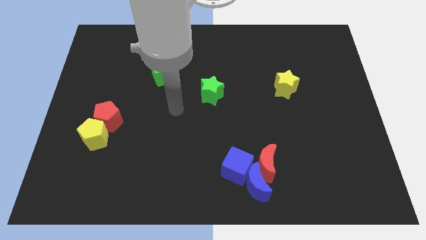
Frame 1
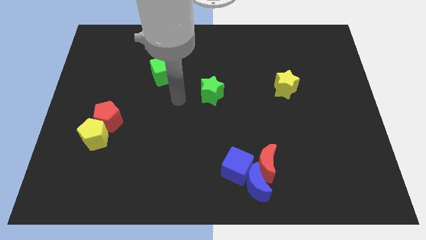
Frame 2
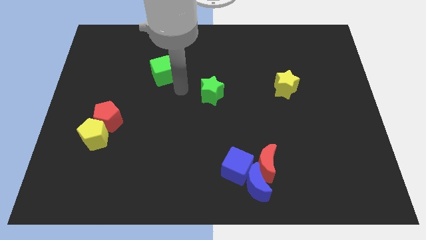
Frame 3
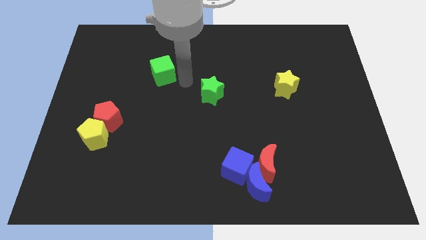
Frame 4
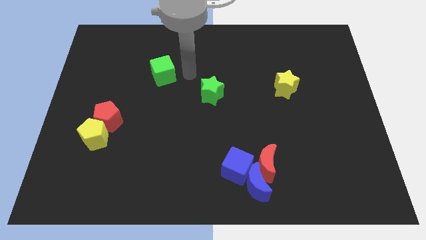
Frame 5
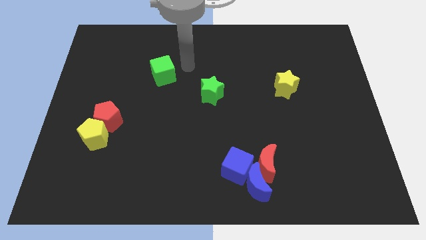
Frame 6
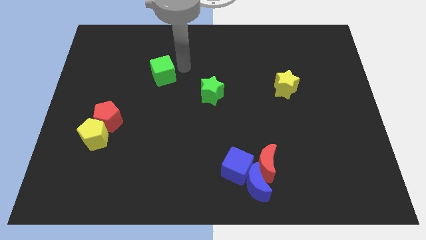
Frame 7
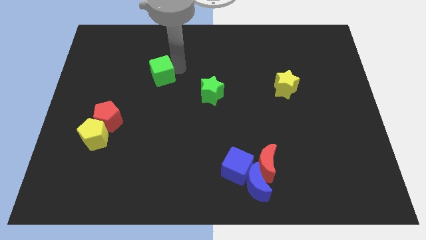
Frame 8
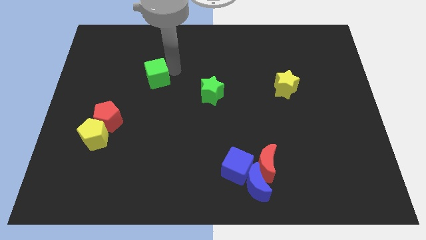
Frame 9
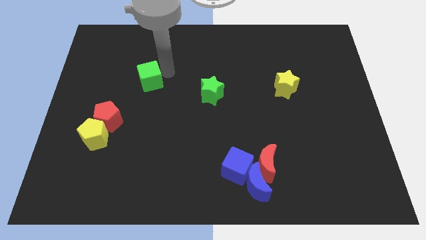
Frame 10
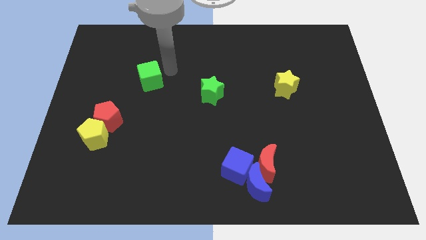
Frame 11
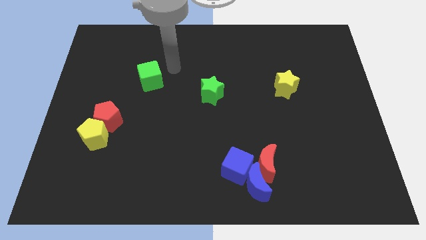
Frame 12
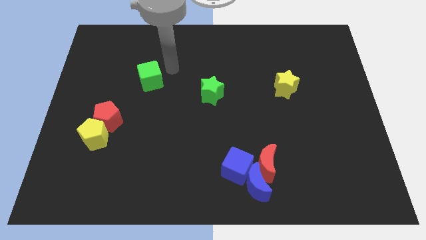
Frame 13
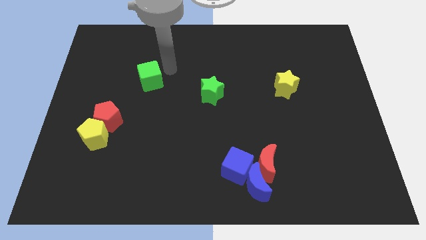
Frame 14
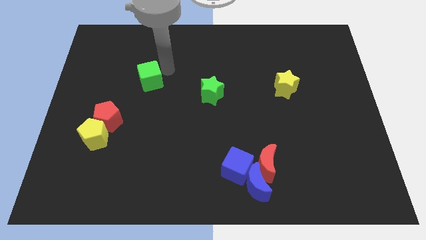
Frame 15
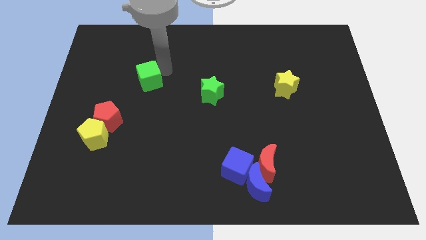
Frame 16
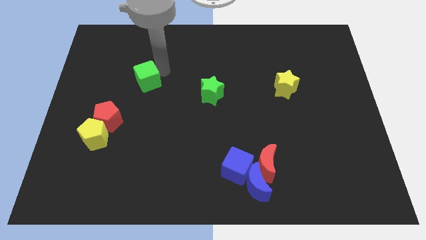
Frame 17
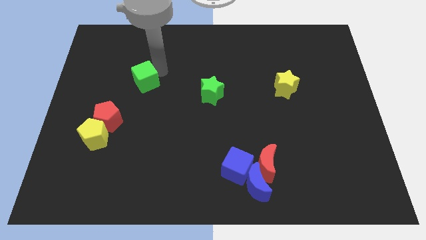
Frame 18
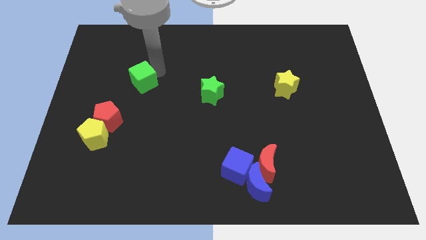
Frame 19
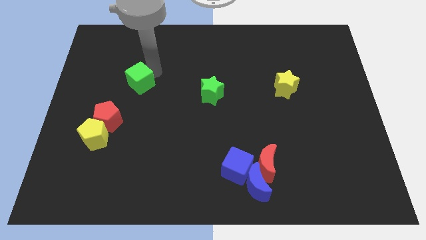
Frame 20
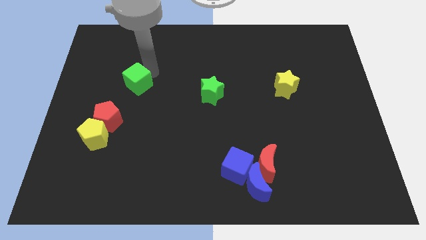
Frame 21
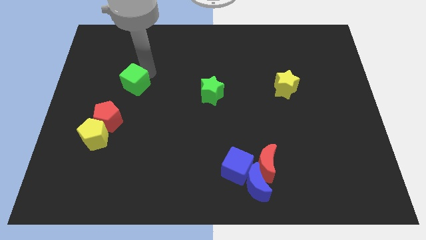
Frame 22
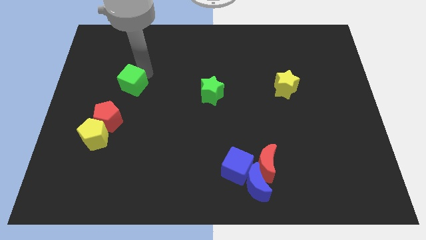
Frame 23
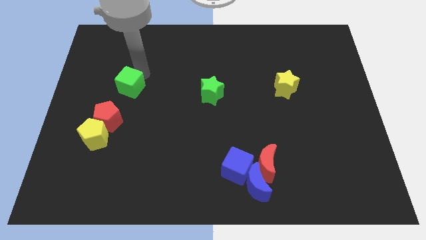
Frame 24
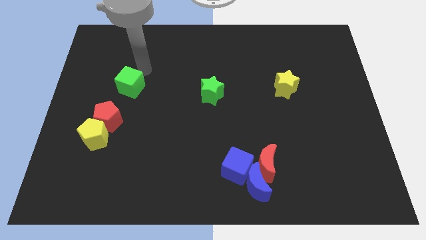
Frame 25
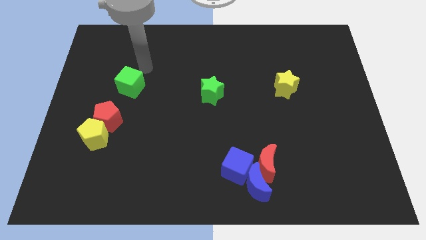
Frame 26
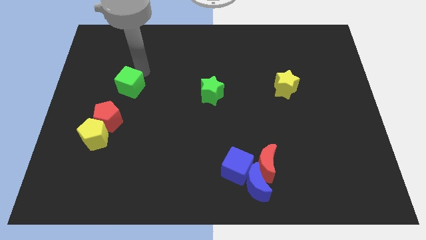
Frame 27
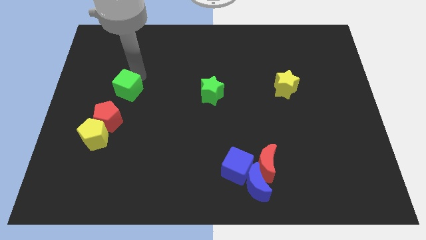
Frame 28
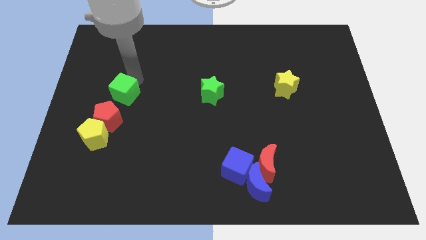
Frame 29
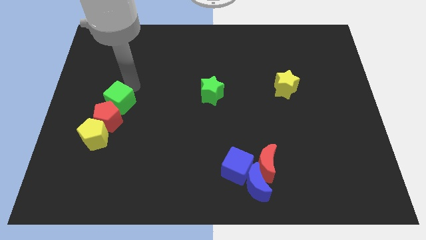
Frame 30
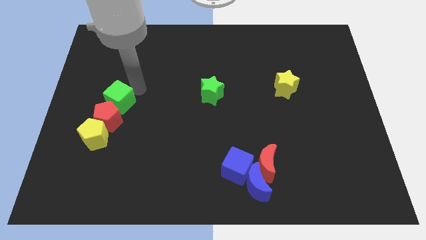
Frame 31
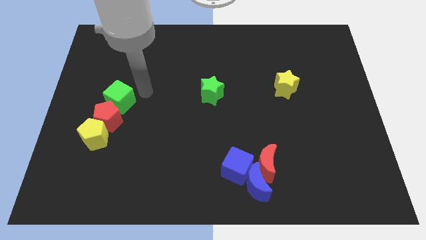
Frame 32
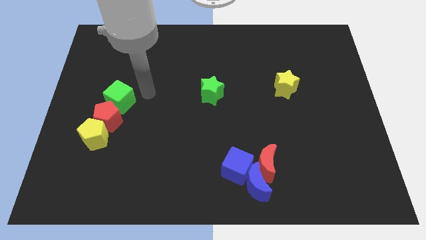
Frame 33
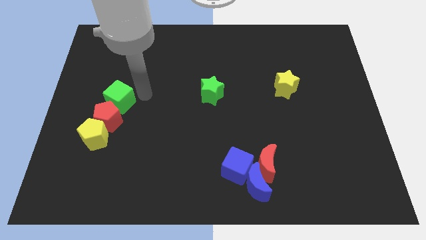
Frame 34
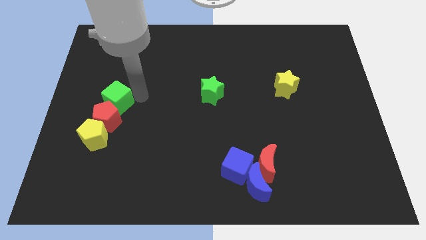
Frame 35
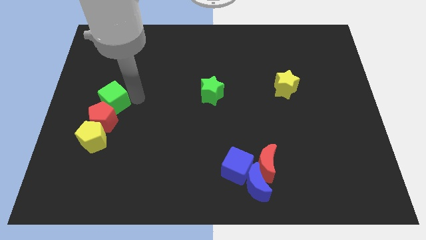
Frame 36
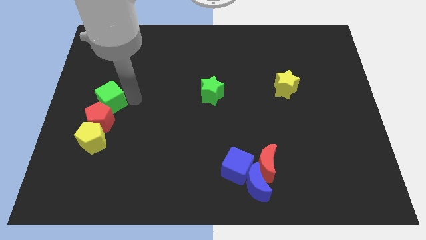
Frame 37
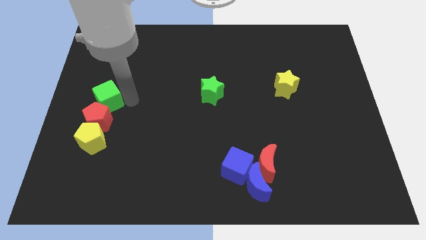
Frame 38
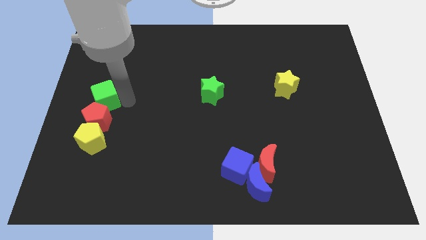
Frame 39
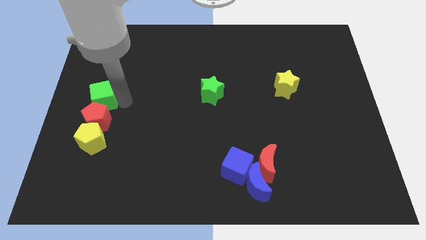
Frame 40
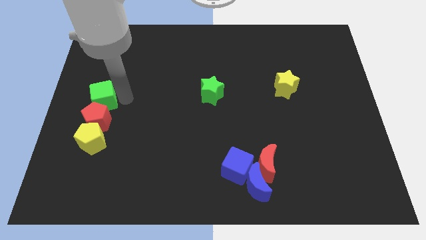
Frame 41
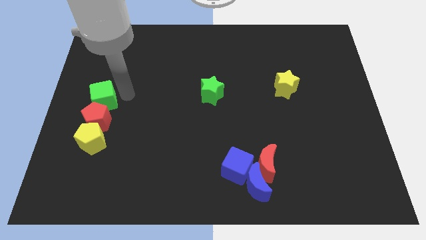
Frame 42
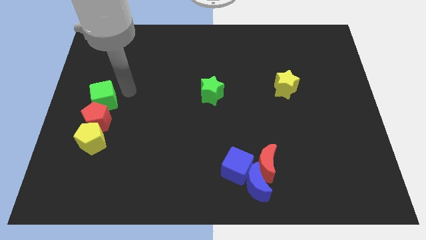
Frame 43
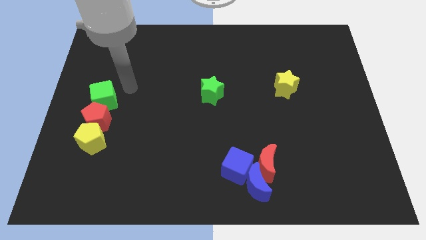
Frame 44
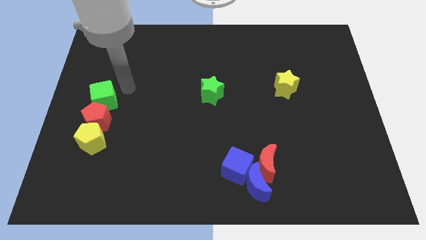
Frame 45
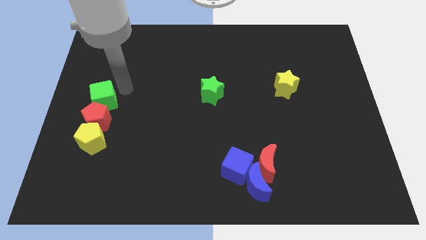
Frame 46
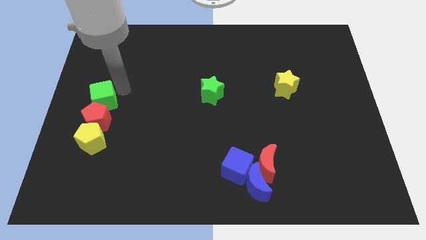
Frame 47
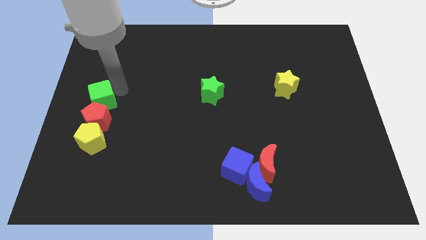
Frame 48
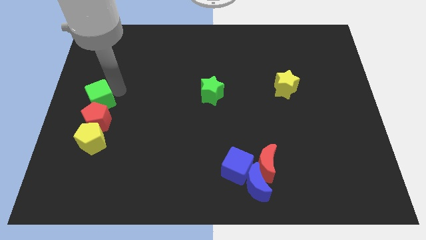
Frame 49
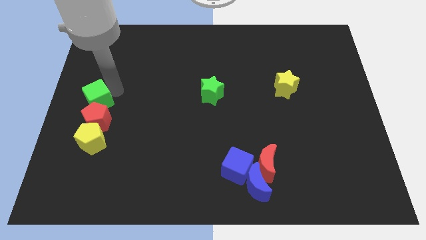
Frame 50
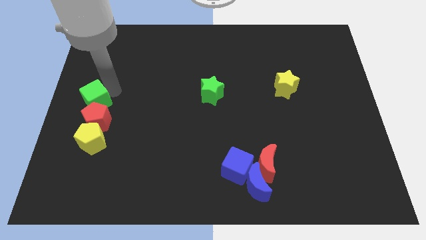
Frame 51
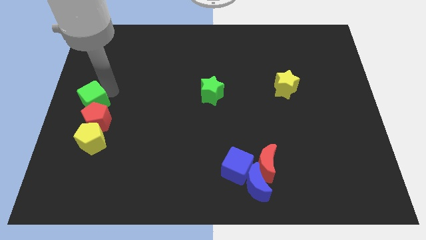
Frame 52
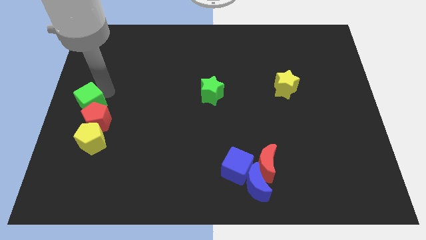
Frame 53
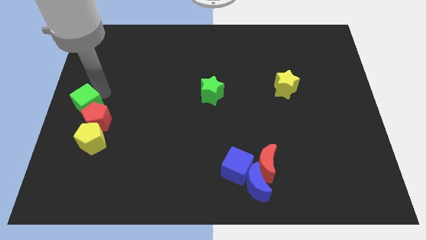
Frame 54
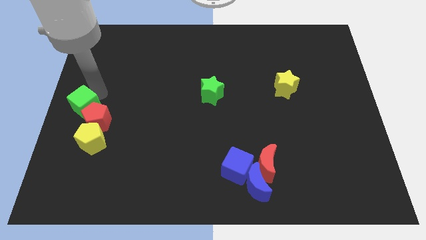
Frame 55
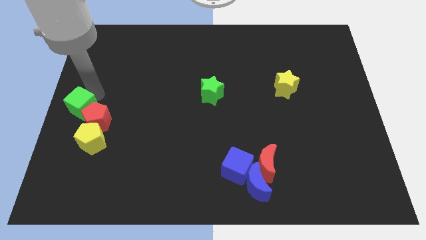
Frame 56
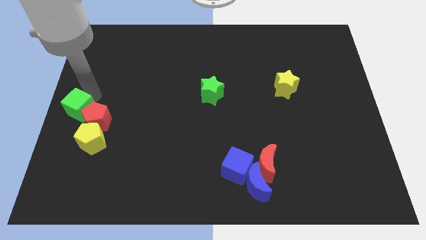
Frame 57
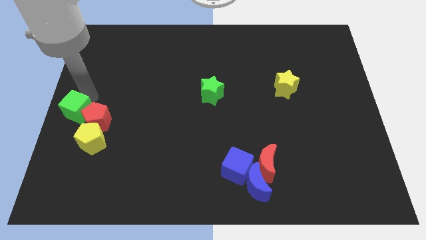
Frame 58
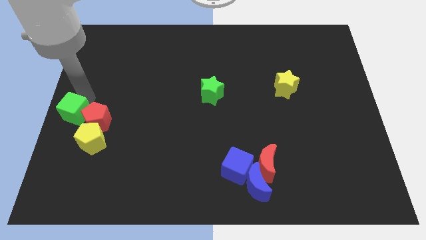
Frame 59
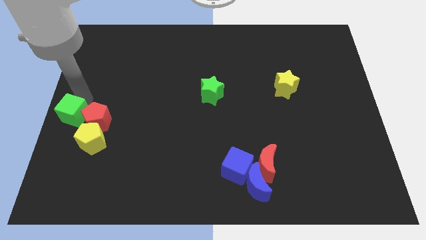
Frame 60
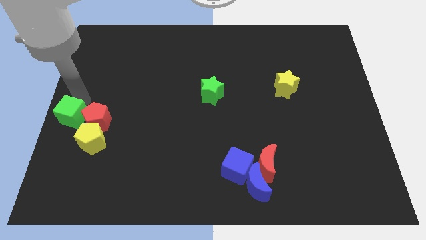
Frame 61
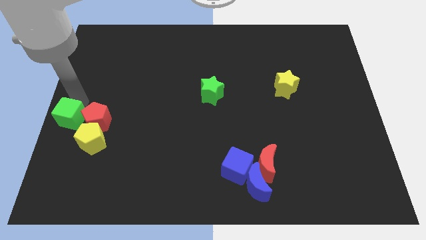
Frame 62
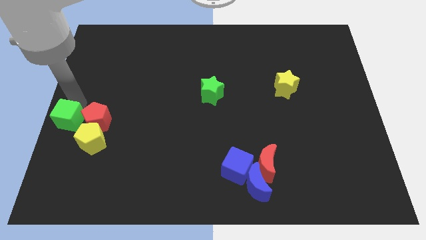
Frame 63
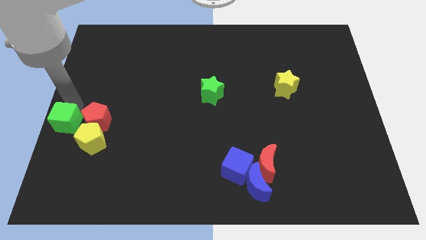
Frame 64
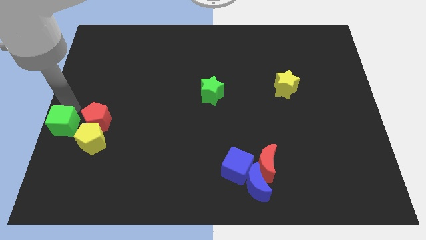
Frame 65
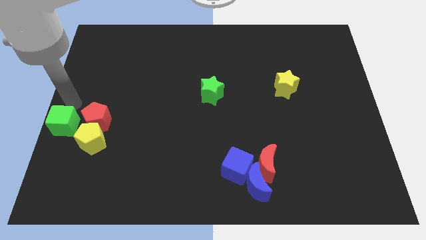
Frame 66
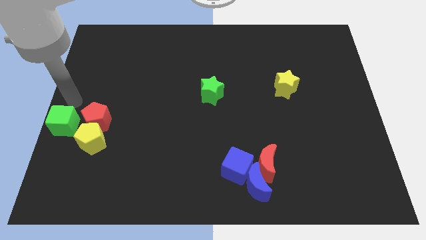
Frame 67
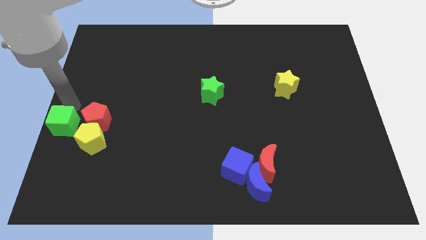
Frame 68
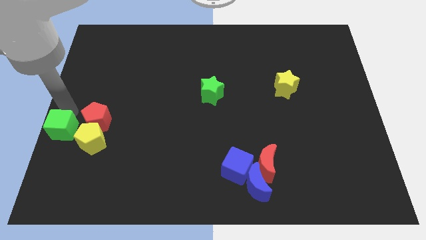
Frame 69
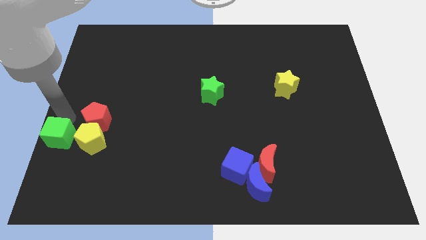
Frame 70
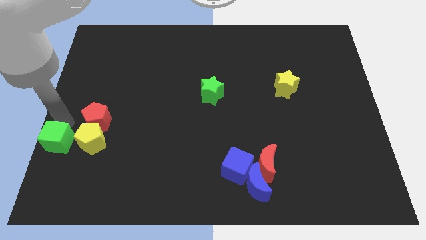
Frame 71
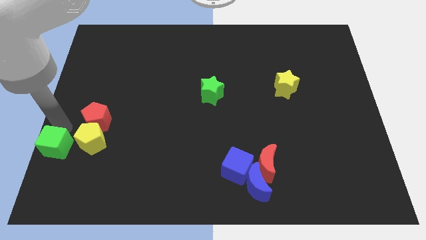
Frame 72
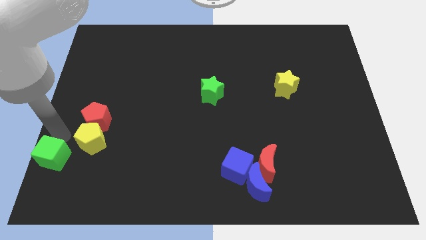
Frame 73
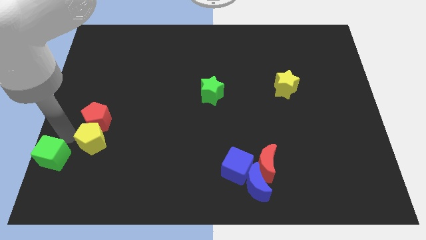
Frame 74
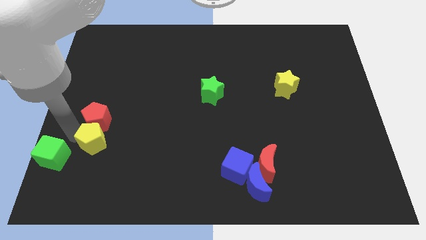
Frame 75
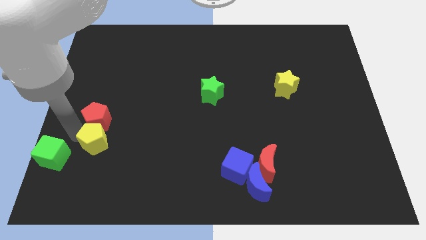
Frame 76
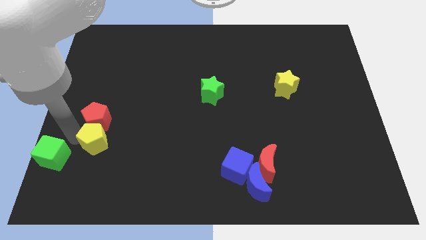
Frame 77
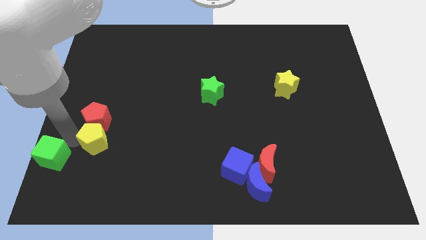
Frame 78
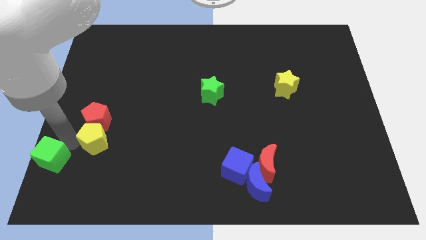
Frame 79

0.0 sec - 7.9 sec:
put the green cube to the bottom left of the board
